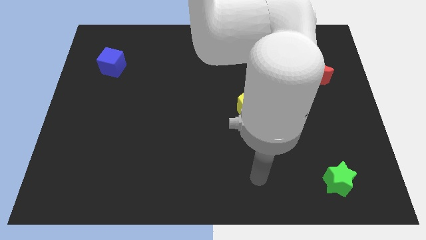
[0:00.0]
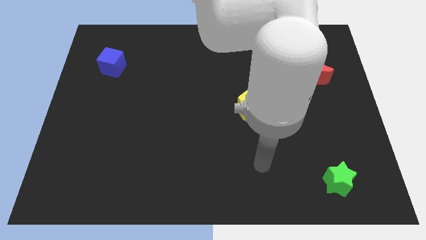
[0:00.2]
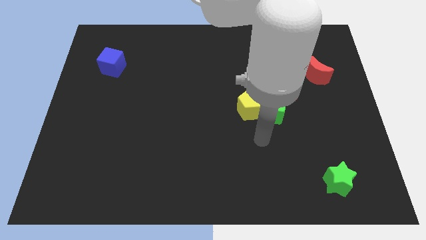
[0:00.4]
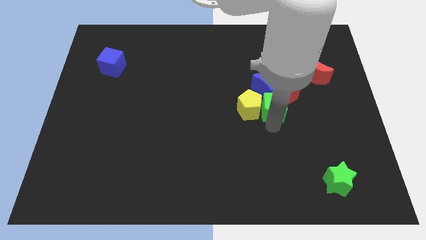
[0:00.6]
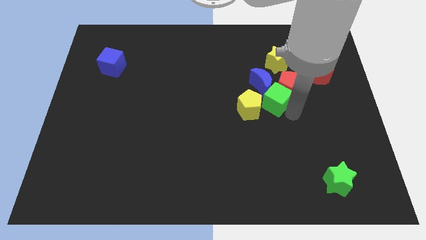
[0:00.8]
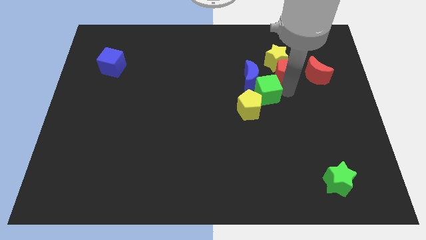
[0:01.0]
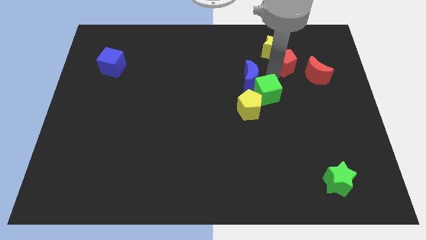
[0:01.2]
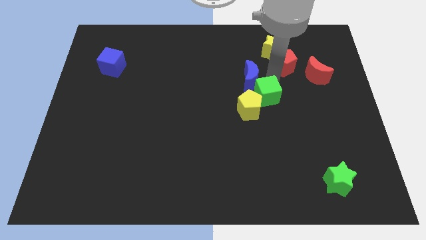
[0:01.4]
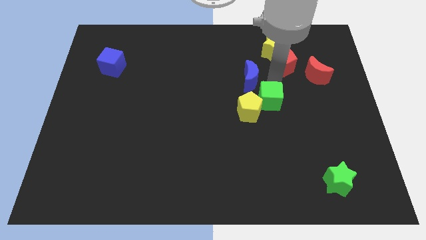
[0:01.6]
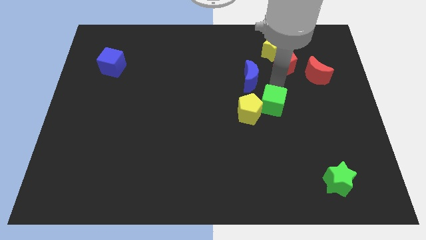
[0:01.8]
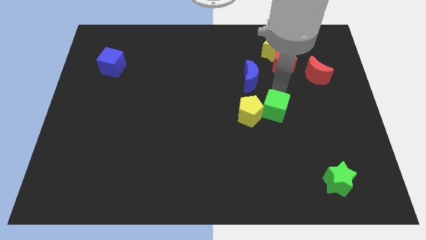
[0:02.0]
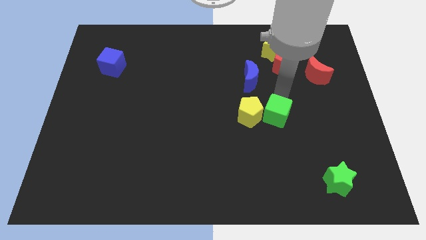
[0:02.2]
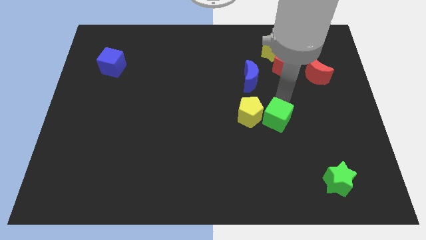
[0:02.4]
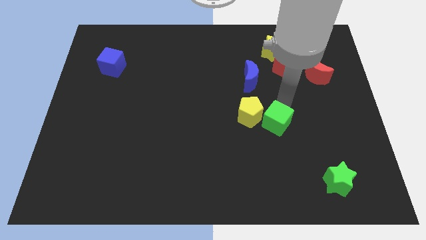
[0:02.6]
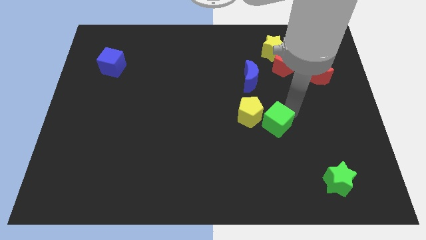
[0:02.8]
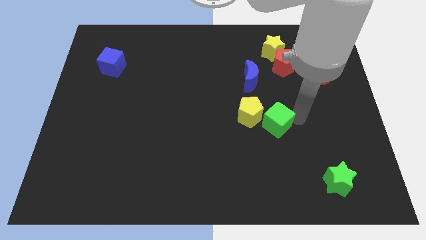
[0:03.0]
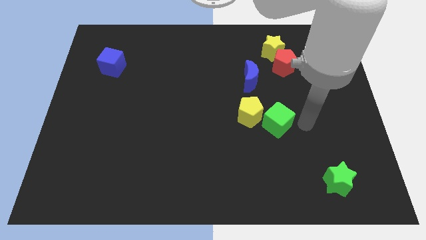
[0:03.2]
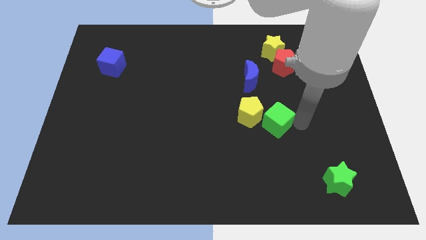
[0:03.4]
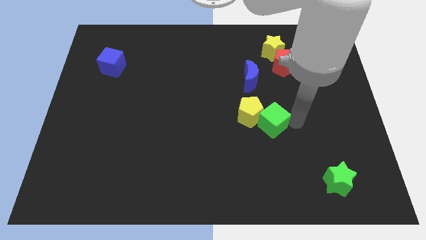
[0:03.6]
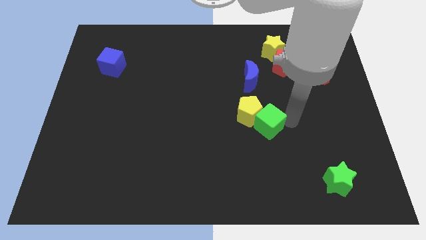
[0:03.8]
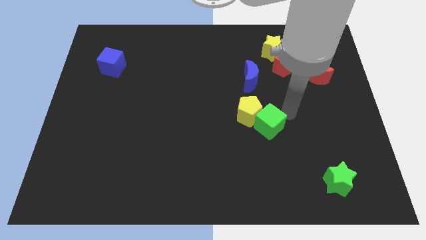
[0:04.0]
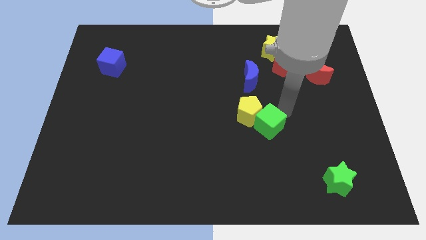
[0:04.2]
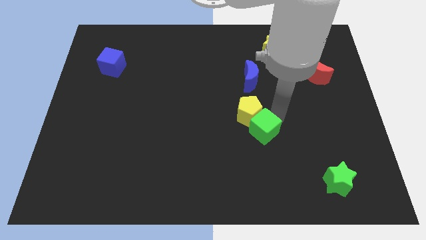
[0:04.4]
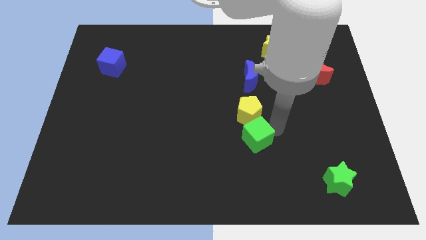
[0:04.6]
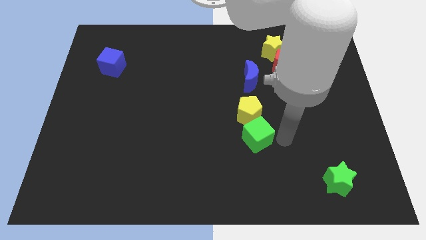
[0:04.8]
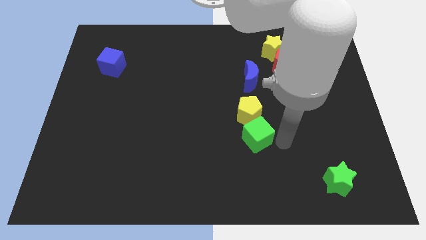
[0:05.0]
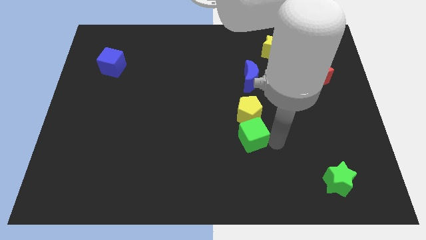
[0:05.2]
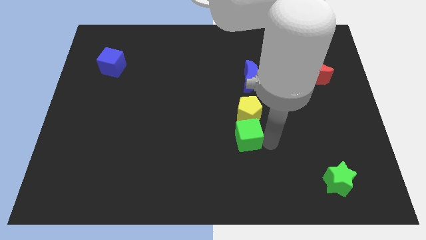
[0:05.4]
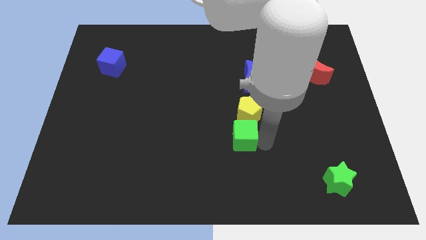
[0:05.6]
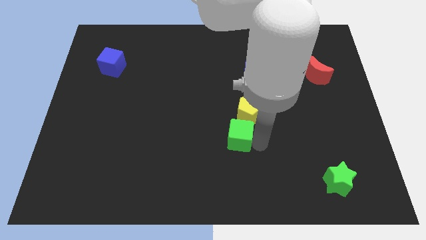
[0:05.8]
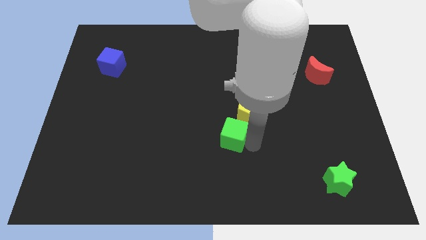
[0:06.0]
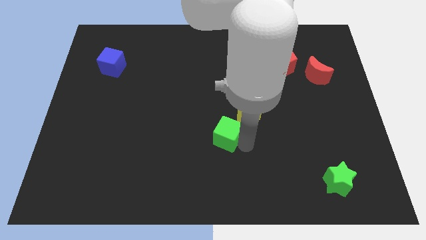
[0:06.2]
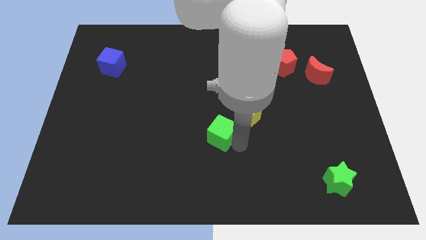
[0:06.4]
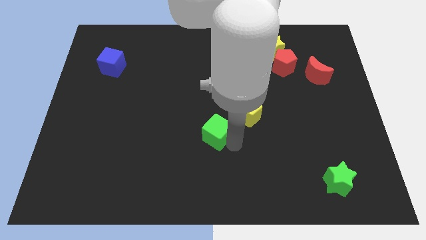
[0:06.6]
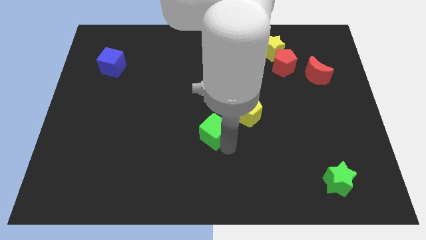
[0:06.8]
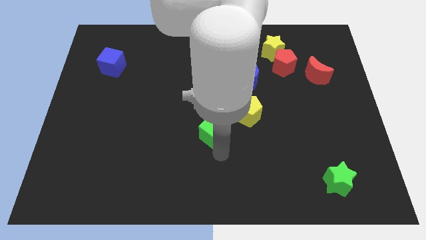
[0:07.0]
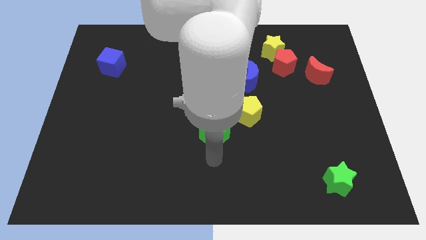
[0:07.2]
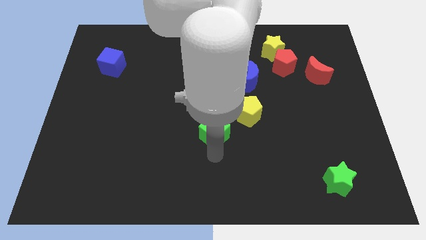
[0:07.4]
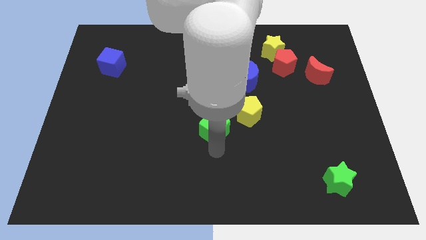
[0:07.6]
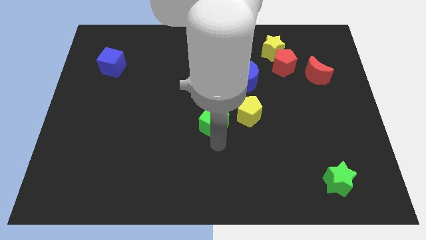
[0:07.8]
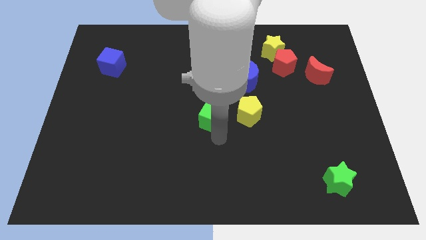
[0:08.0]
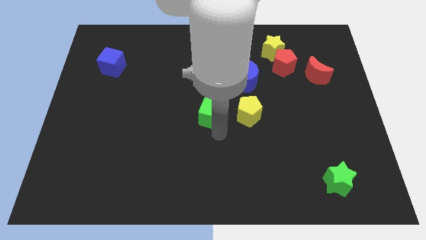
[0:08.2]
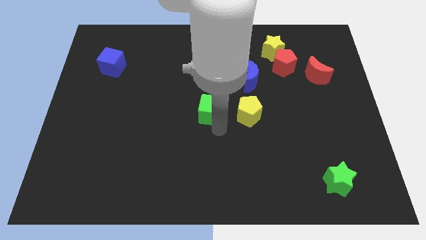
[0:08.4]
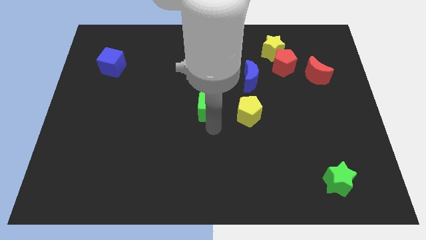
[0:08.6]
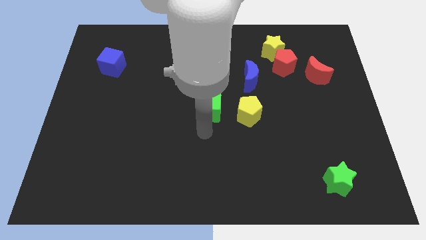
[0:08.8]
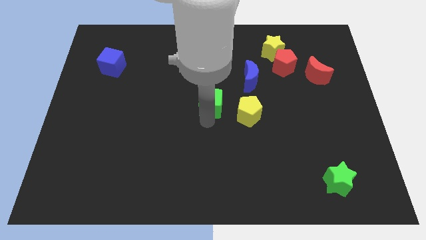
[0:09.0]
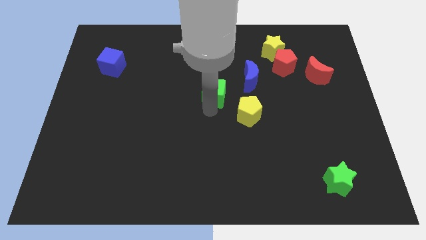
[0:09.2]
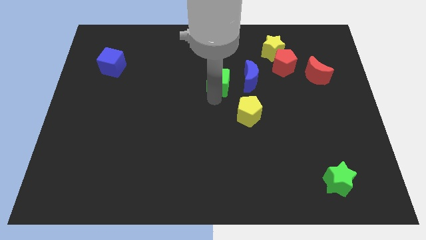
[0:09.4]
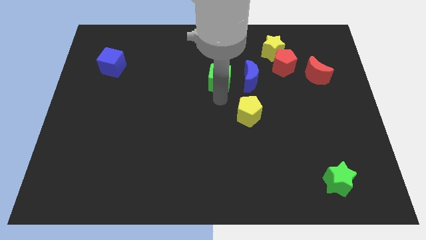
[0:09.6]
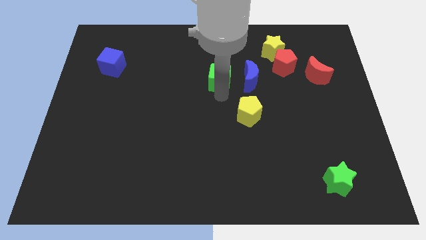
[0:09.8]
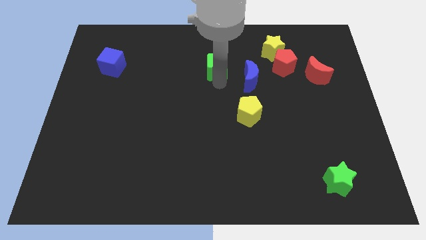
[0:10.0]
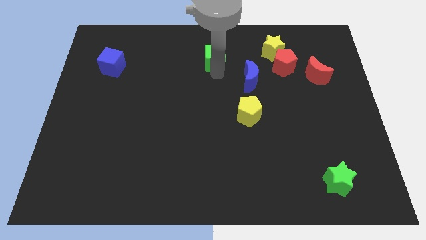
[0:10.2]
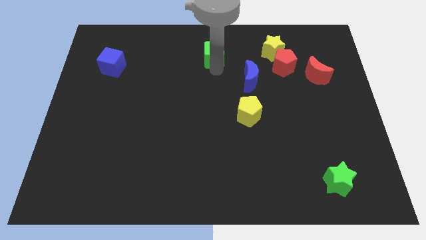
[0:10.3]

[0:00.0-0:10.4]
slide the green cube to the top

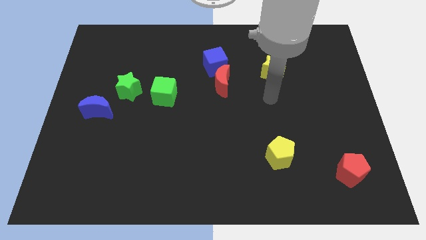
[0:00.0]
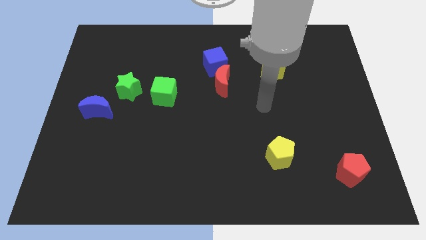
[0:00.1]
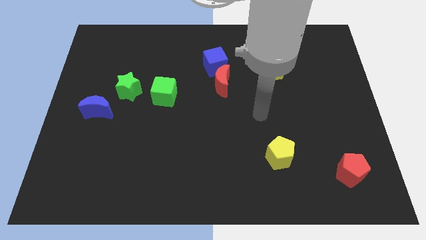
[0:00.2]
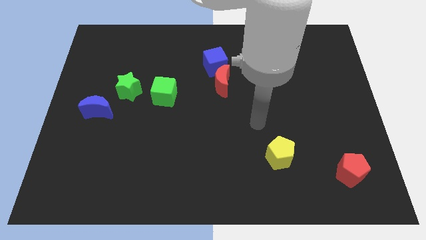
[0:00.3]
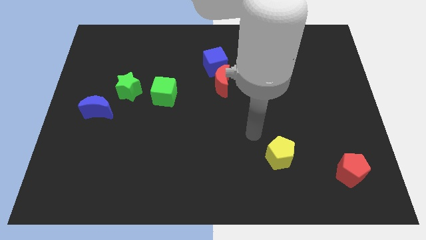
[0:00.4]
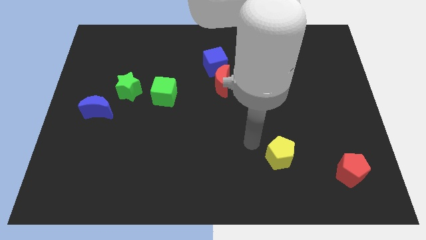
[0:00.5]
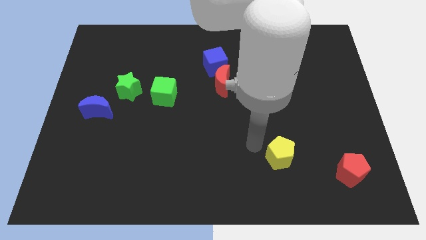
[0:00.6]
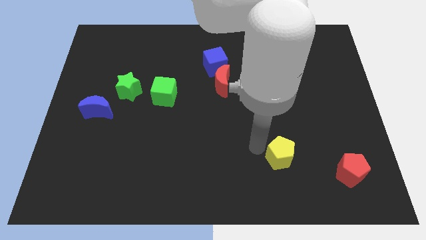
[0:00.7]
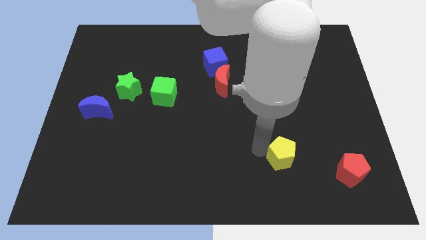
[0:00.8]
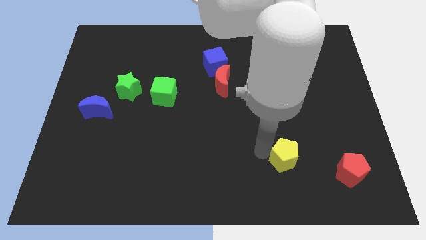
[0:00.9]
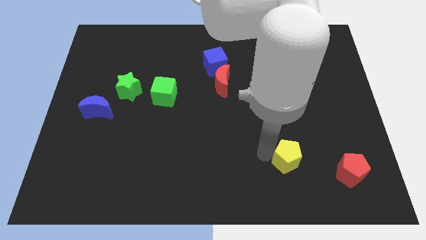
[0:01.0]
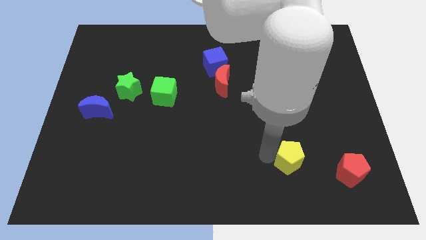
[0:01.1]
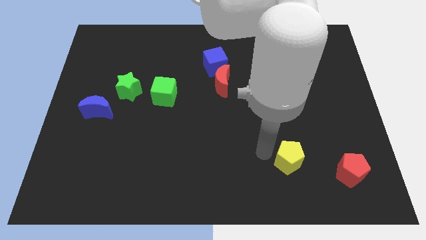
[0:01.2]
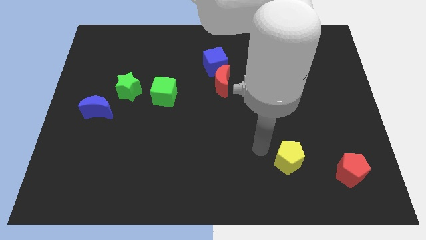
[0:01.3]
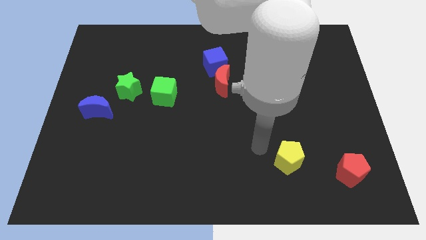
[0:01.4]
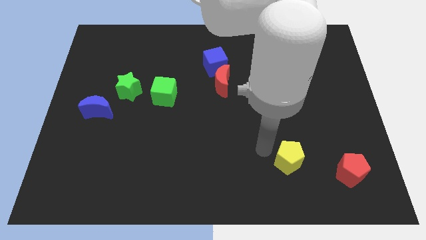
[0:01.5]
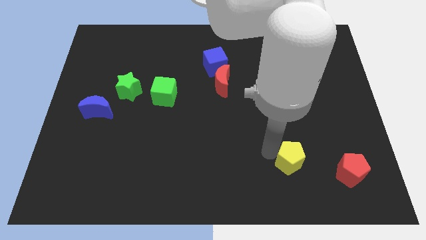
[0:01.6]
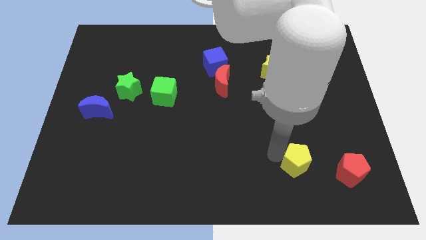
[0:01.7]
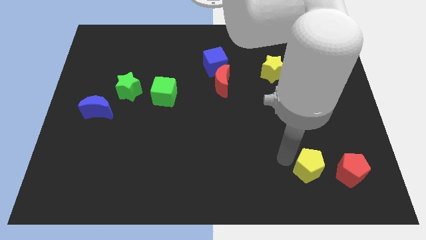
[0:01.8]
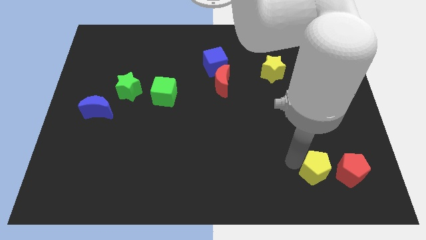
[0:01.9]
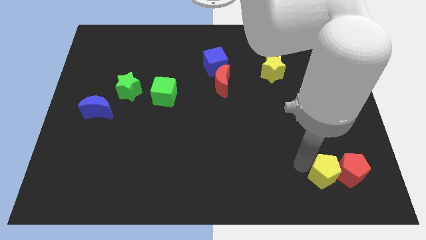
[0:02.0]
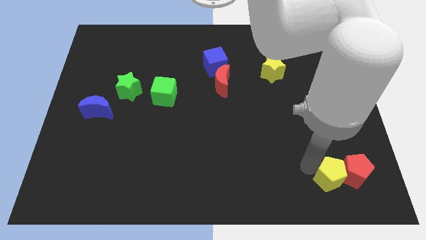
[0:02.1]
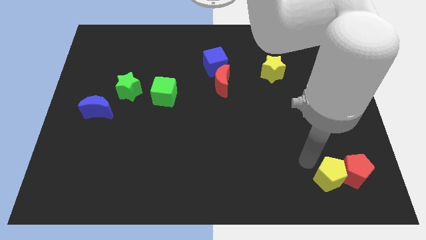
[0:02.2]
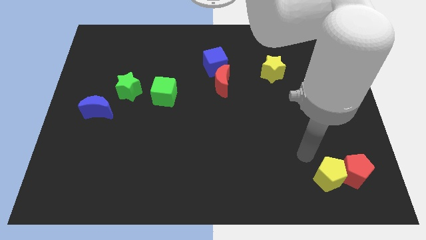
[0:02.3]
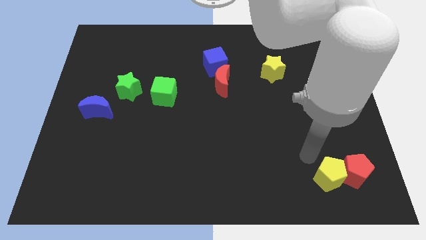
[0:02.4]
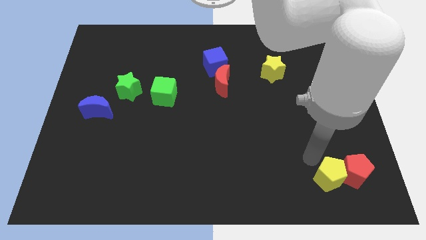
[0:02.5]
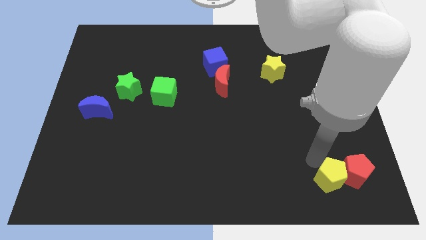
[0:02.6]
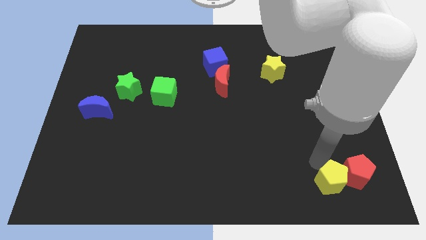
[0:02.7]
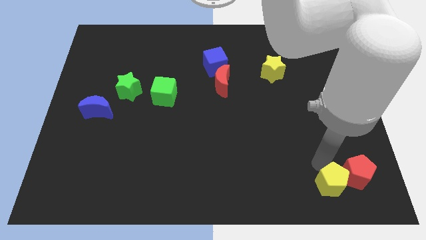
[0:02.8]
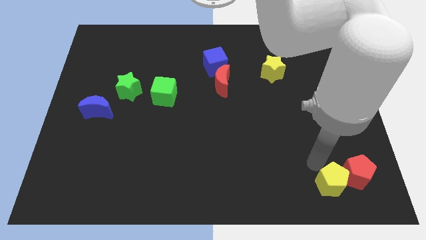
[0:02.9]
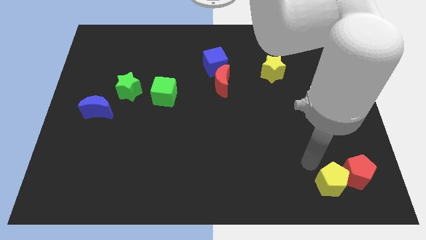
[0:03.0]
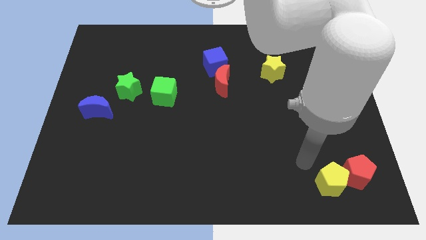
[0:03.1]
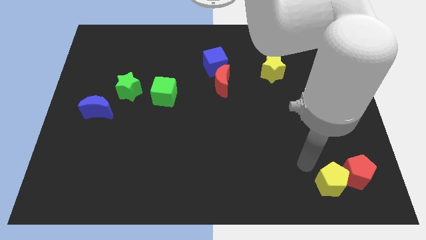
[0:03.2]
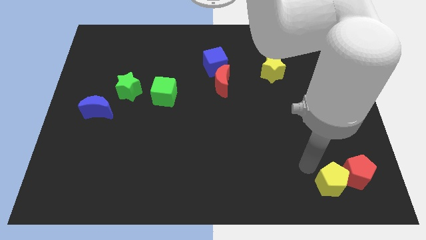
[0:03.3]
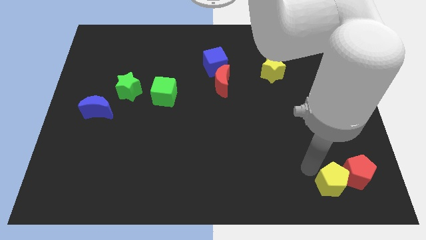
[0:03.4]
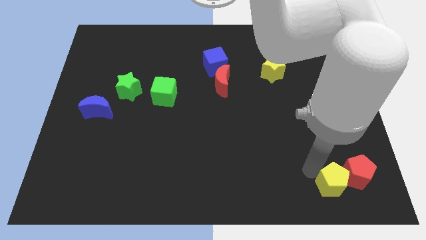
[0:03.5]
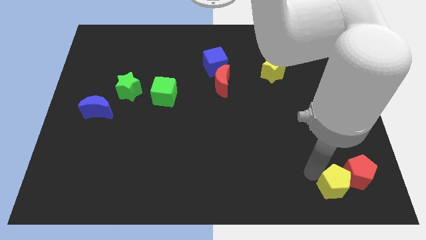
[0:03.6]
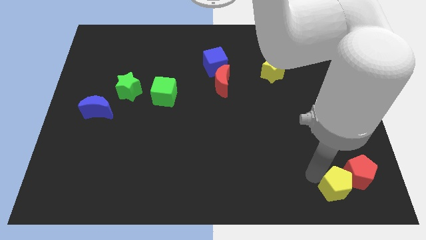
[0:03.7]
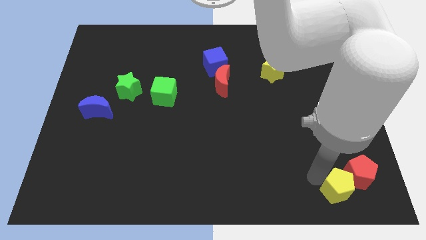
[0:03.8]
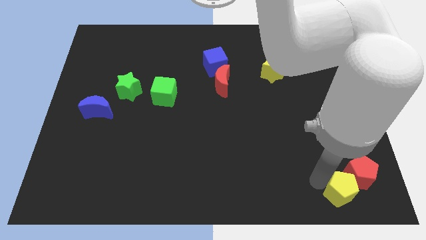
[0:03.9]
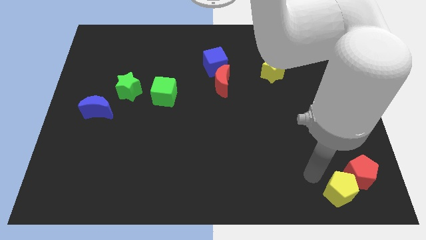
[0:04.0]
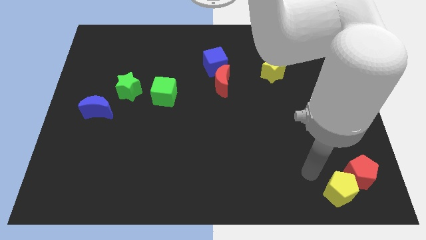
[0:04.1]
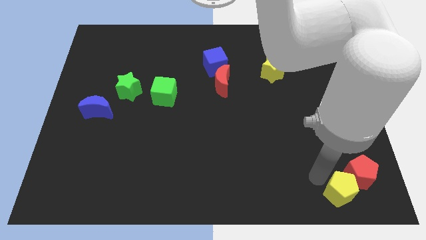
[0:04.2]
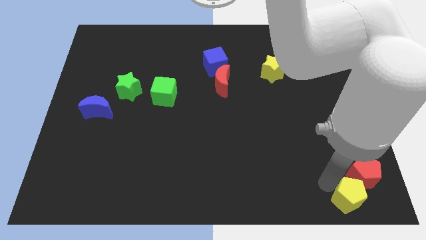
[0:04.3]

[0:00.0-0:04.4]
slide the yellow pentagon to the bottom right
